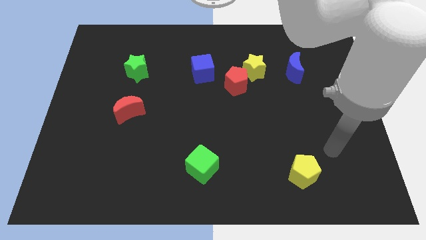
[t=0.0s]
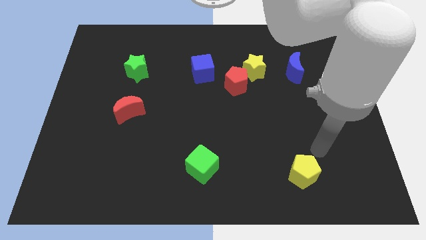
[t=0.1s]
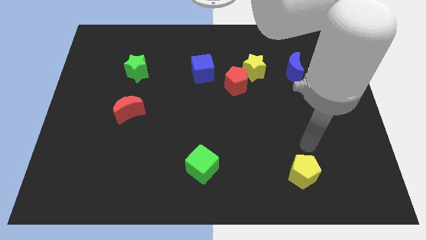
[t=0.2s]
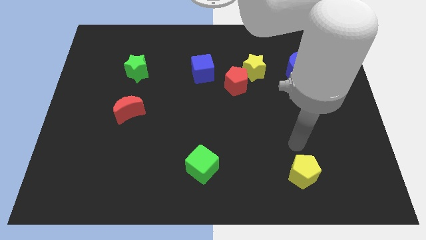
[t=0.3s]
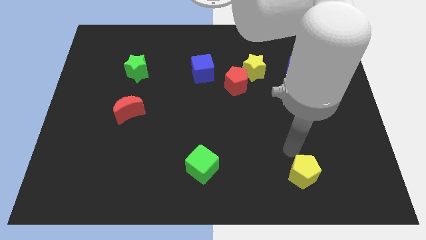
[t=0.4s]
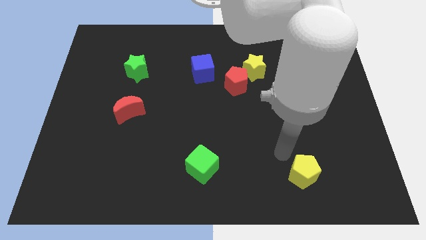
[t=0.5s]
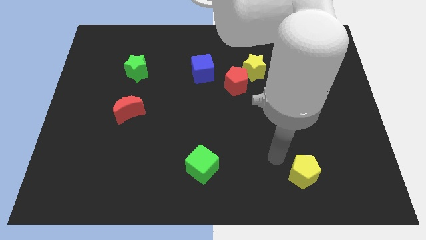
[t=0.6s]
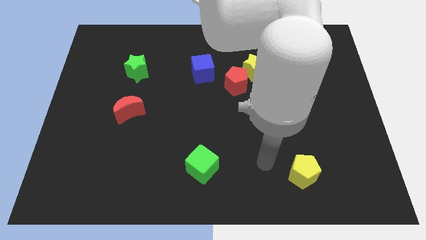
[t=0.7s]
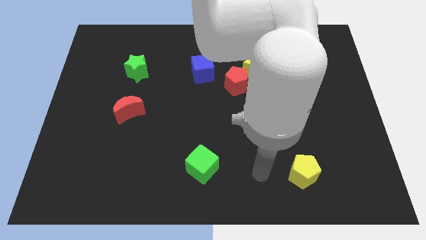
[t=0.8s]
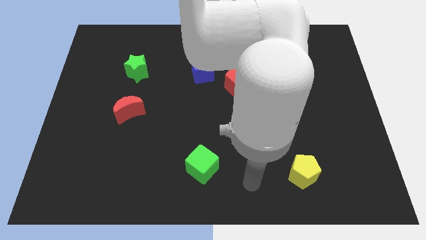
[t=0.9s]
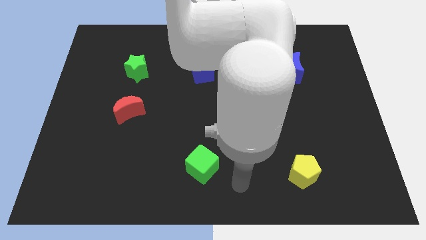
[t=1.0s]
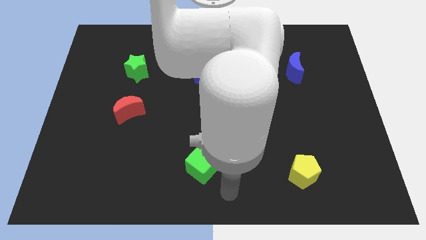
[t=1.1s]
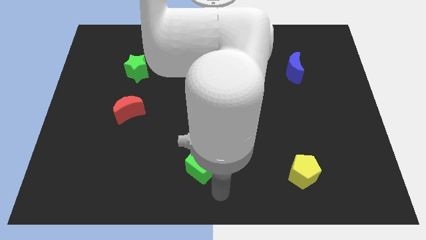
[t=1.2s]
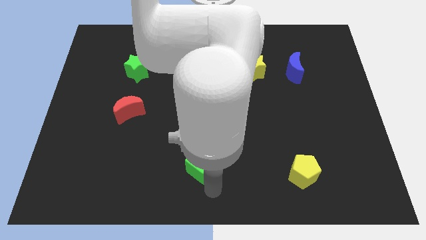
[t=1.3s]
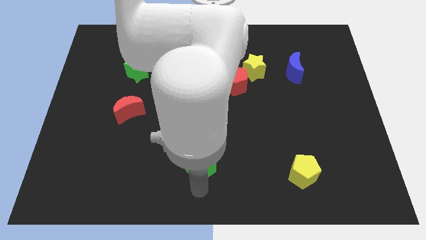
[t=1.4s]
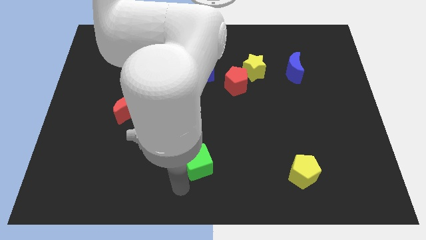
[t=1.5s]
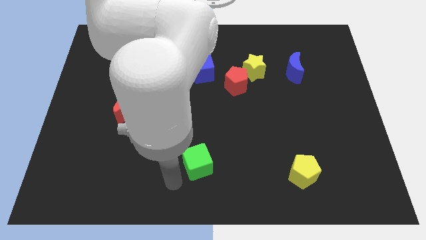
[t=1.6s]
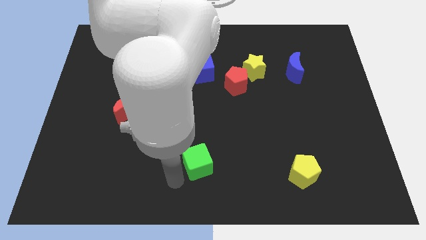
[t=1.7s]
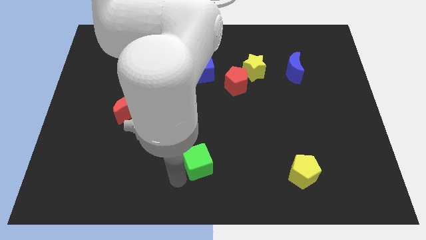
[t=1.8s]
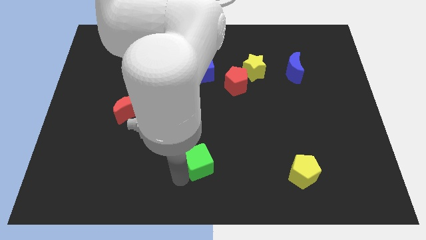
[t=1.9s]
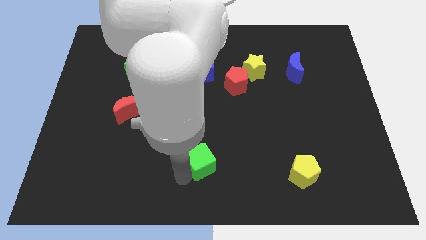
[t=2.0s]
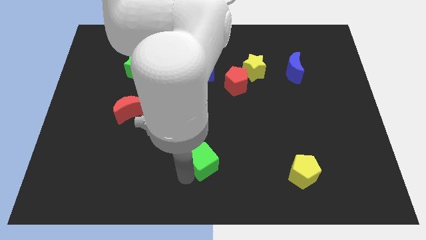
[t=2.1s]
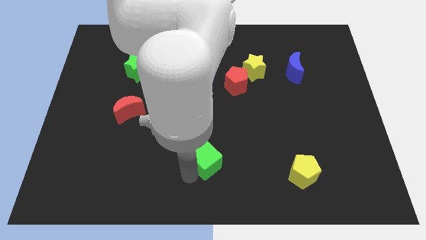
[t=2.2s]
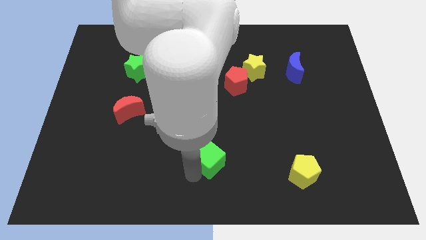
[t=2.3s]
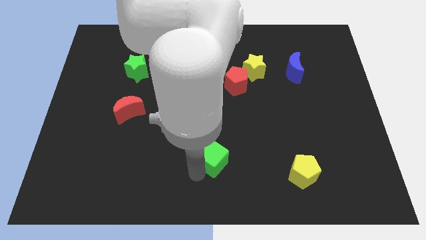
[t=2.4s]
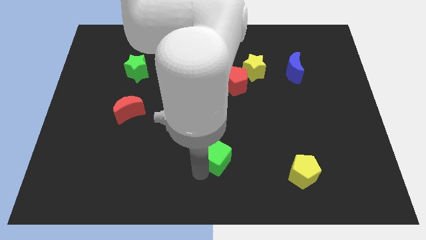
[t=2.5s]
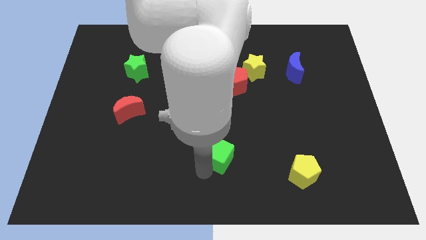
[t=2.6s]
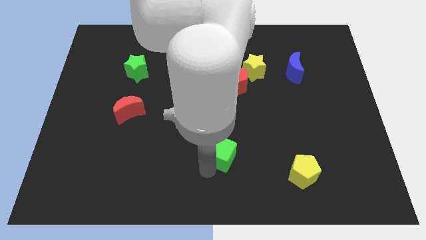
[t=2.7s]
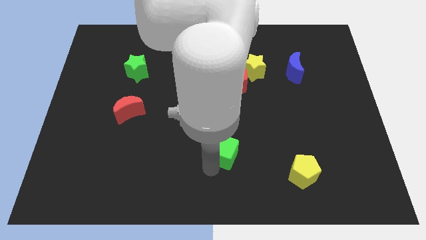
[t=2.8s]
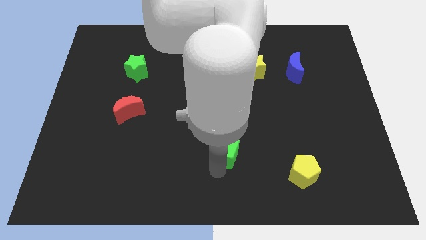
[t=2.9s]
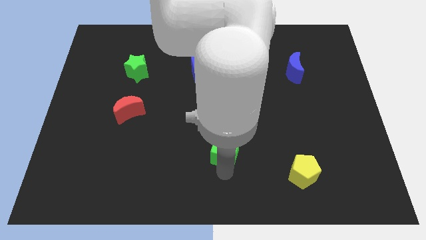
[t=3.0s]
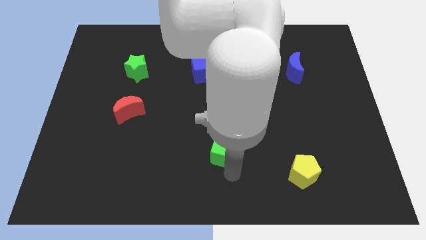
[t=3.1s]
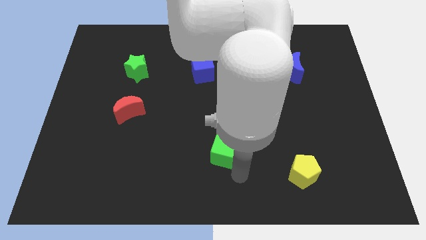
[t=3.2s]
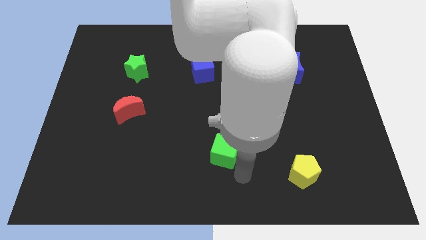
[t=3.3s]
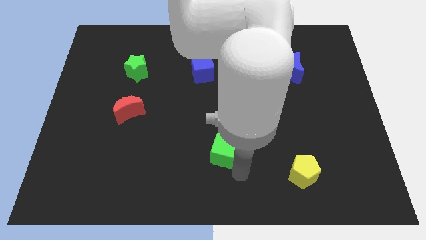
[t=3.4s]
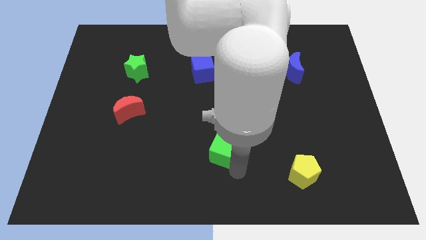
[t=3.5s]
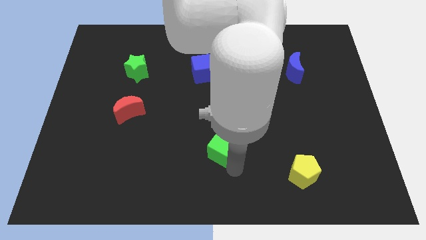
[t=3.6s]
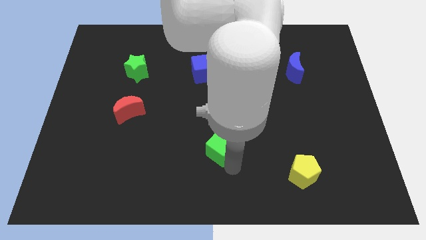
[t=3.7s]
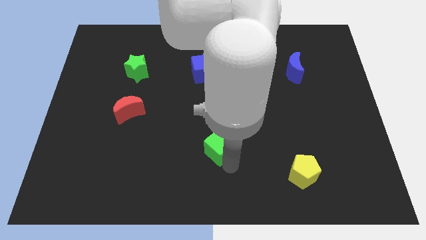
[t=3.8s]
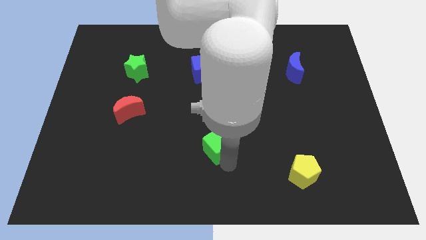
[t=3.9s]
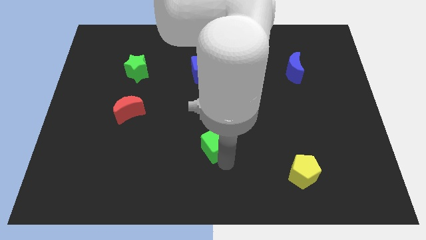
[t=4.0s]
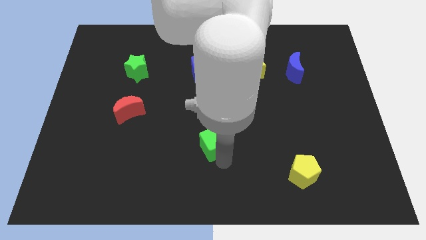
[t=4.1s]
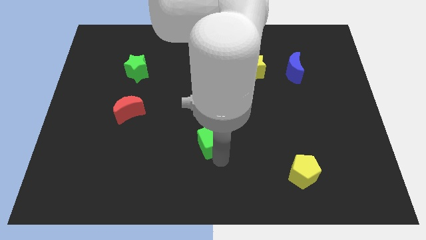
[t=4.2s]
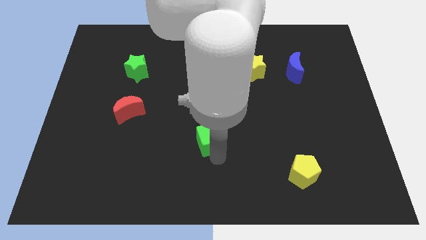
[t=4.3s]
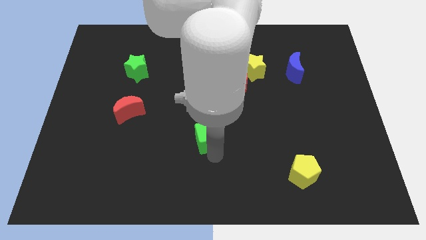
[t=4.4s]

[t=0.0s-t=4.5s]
slide the green cube up a little bit

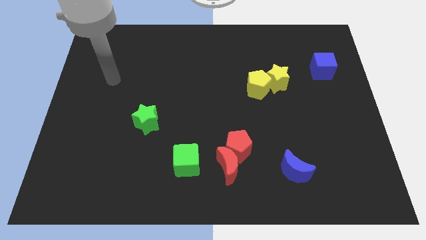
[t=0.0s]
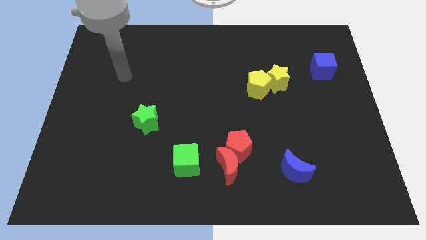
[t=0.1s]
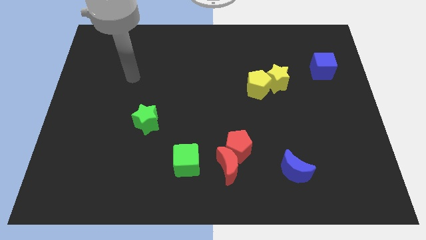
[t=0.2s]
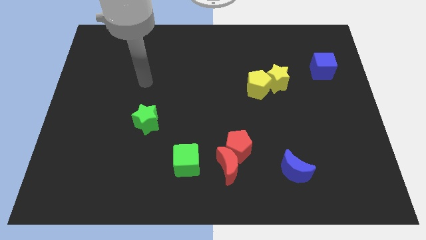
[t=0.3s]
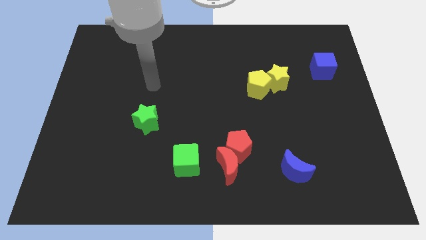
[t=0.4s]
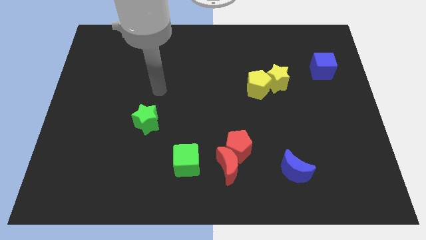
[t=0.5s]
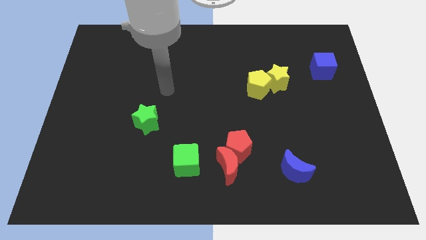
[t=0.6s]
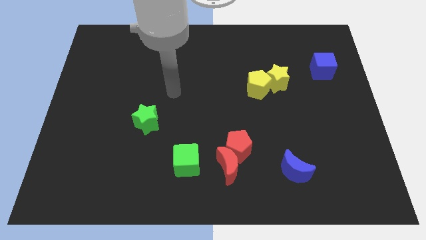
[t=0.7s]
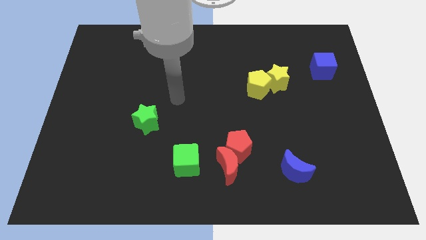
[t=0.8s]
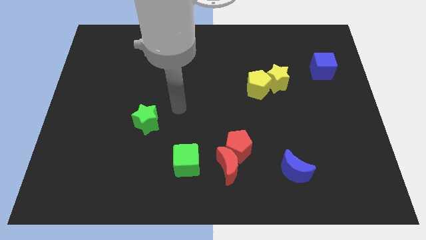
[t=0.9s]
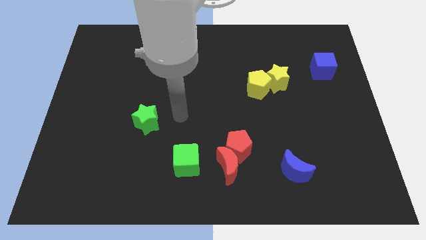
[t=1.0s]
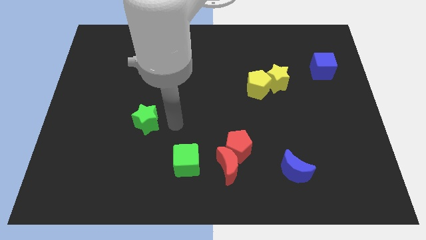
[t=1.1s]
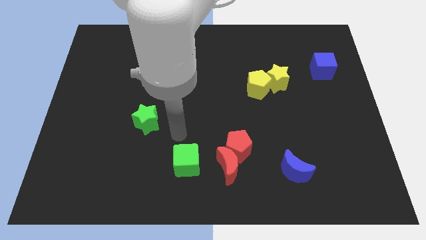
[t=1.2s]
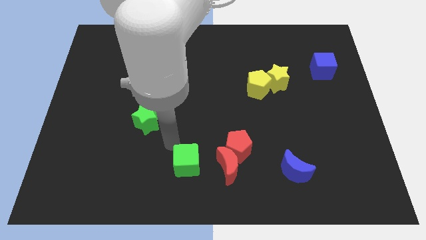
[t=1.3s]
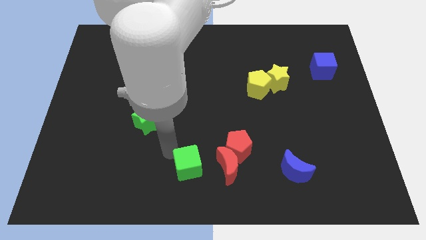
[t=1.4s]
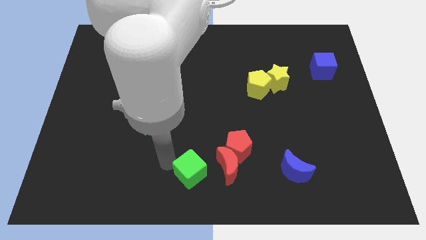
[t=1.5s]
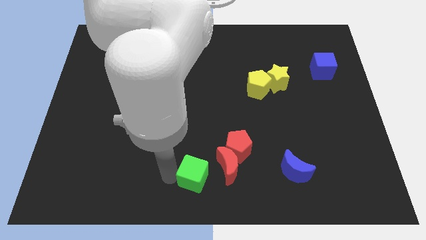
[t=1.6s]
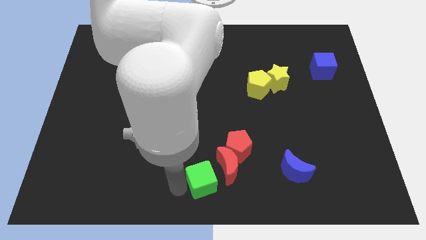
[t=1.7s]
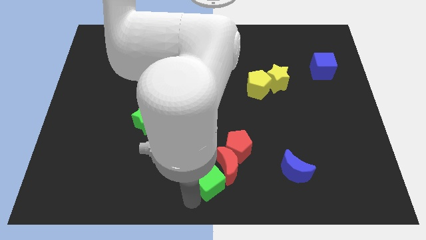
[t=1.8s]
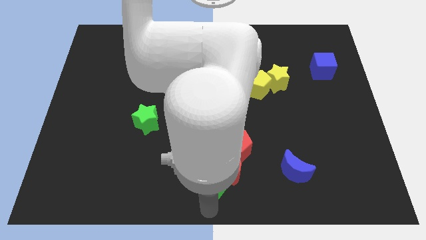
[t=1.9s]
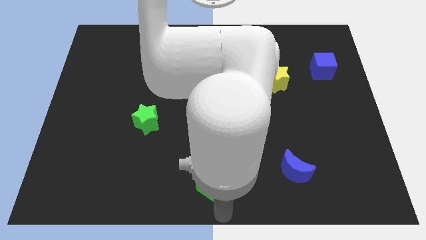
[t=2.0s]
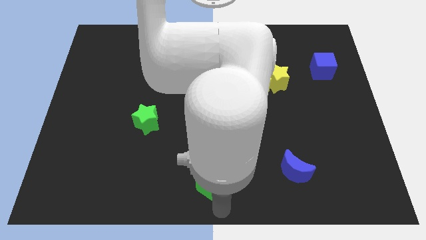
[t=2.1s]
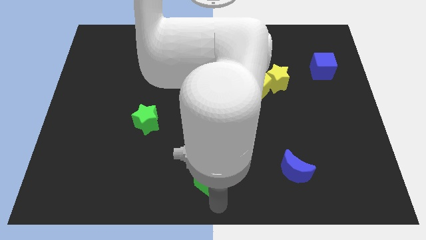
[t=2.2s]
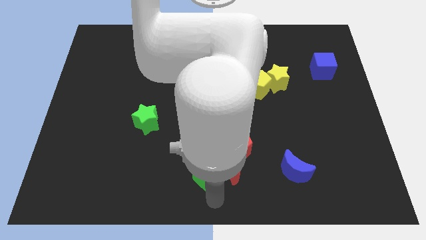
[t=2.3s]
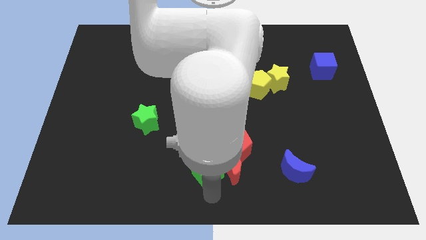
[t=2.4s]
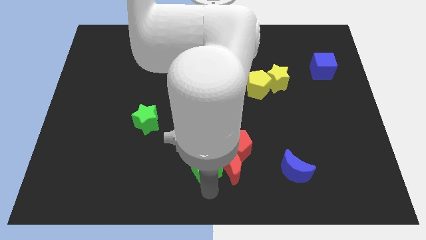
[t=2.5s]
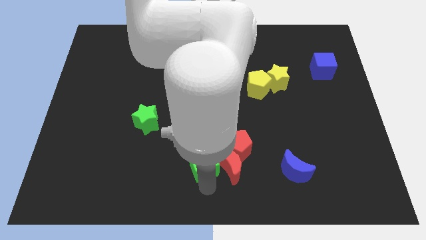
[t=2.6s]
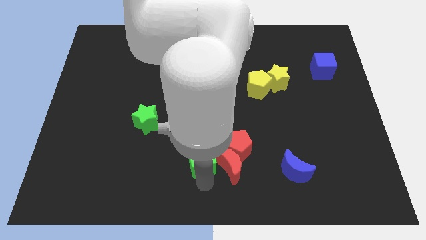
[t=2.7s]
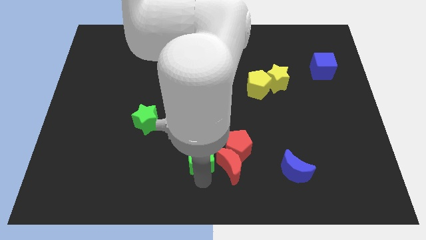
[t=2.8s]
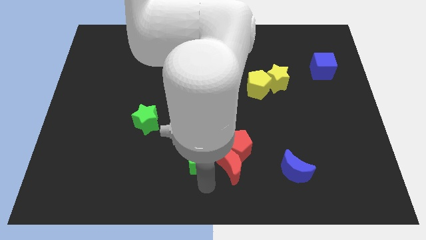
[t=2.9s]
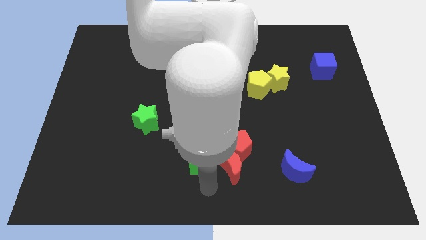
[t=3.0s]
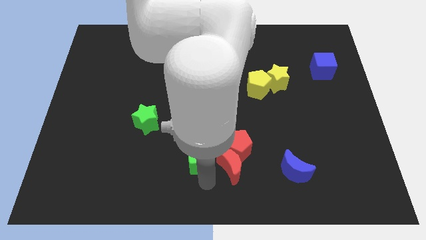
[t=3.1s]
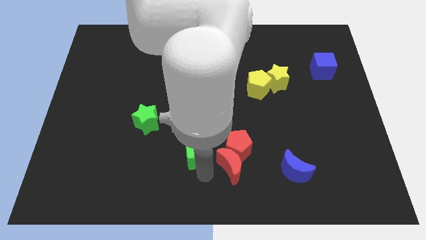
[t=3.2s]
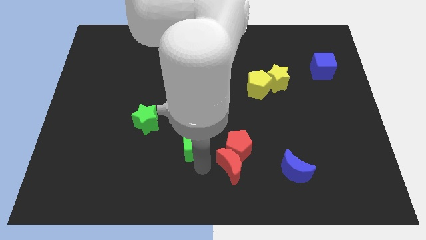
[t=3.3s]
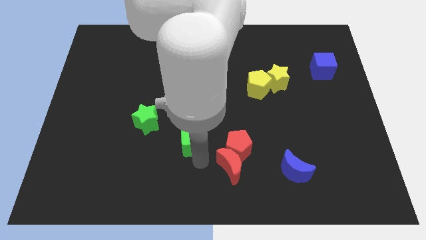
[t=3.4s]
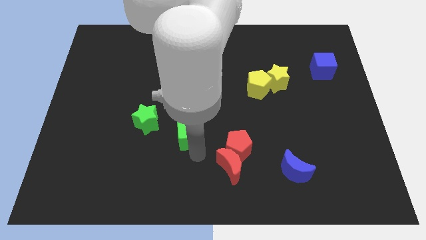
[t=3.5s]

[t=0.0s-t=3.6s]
move the green cube upwards a little bit
